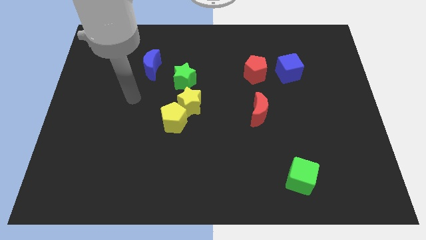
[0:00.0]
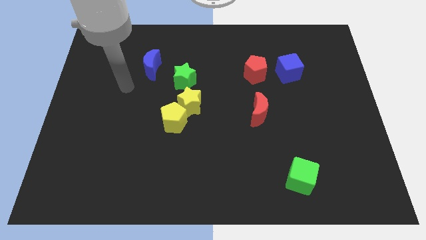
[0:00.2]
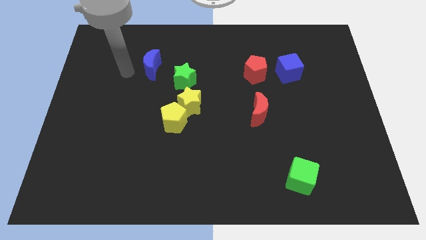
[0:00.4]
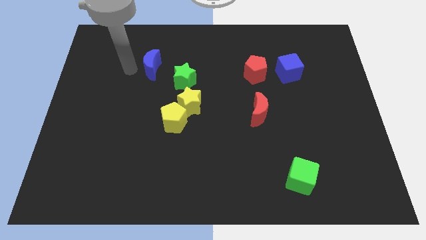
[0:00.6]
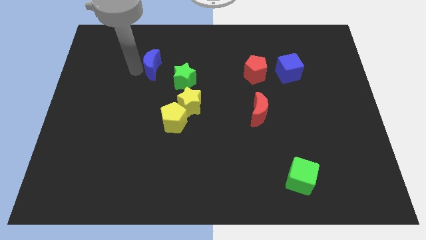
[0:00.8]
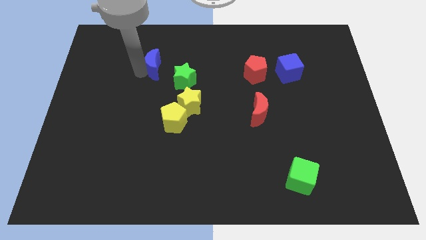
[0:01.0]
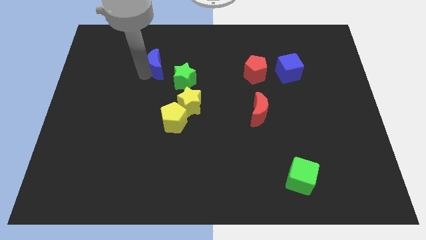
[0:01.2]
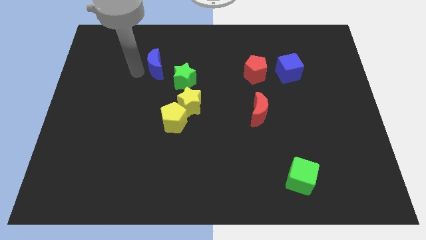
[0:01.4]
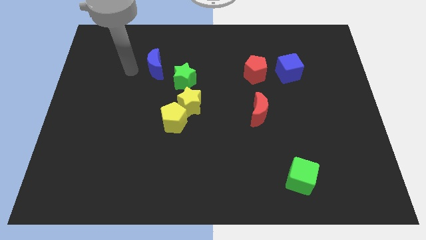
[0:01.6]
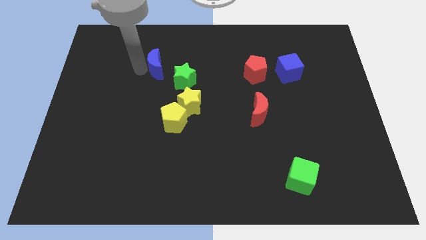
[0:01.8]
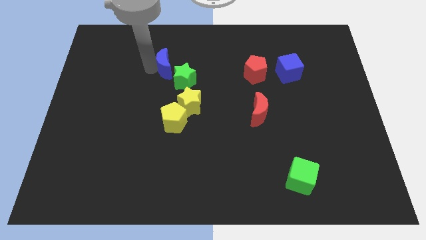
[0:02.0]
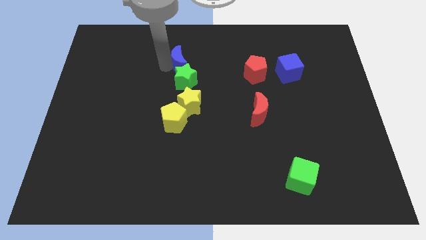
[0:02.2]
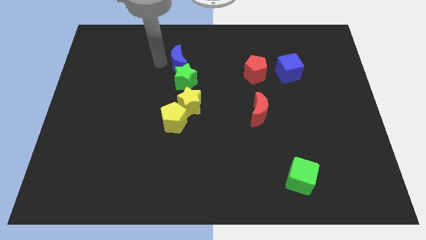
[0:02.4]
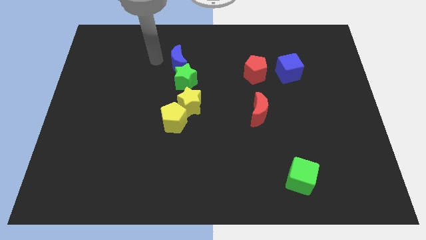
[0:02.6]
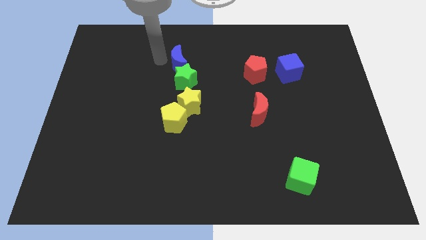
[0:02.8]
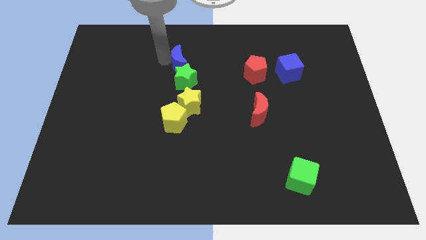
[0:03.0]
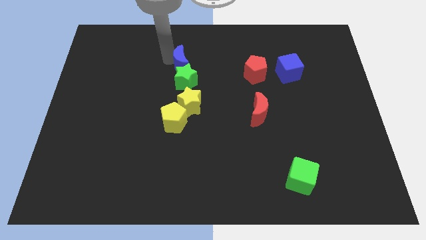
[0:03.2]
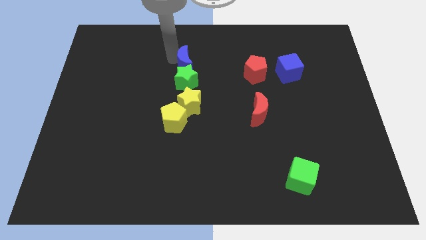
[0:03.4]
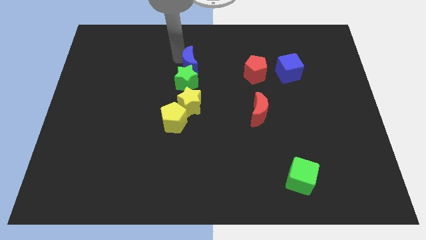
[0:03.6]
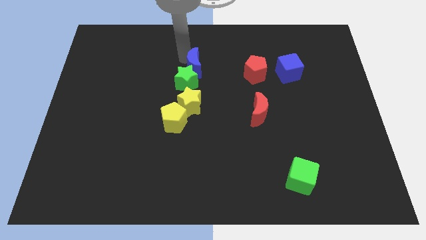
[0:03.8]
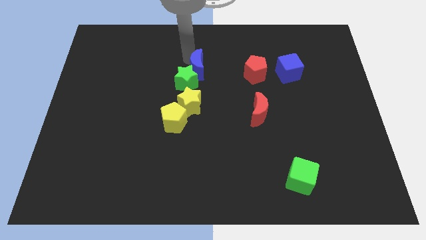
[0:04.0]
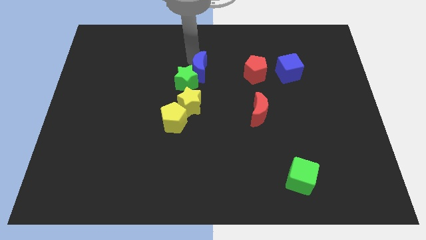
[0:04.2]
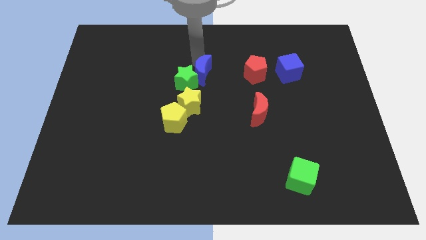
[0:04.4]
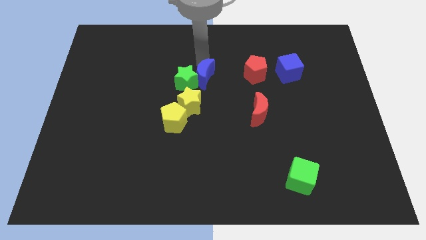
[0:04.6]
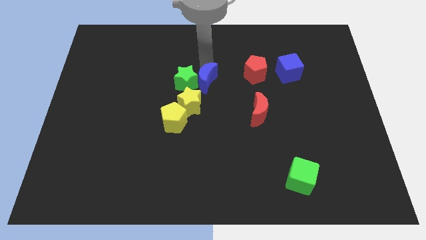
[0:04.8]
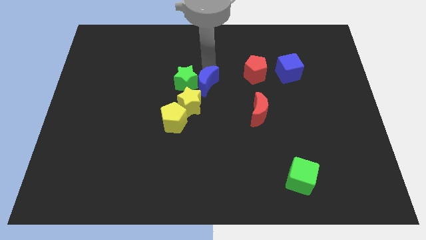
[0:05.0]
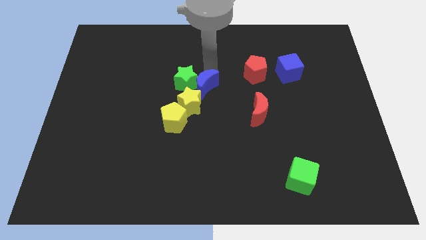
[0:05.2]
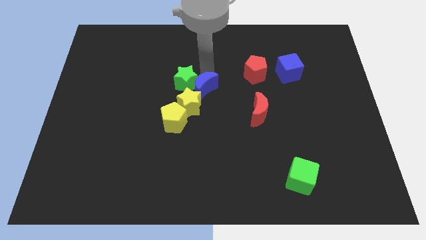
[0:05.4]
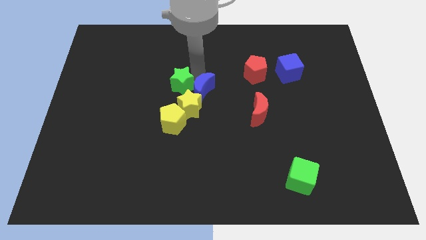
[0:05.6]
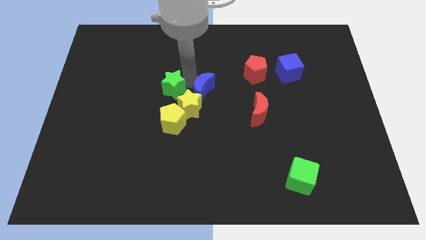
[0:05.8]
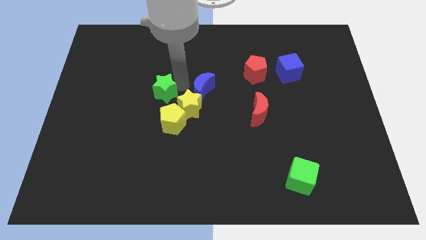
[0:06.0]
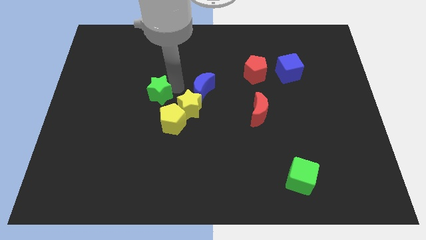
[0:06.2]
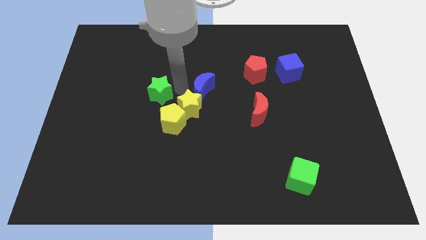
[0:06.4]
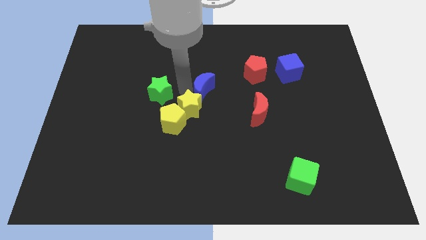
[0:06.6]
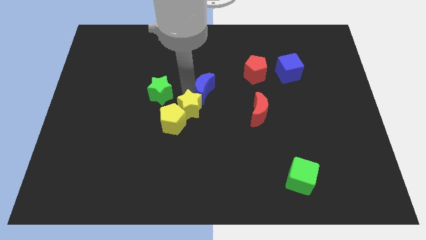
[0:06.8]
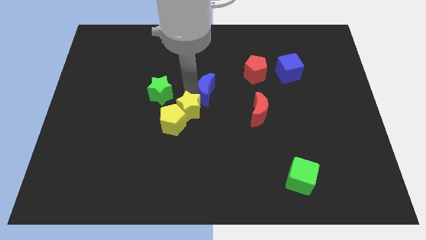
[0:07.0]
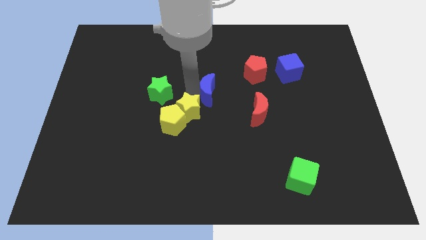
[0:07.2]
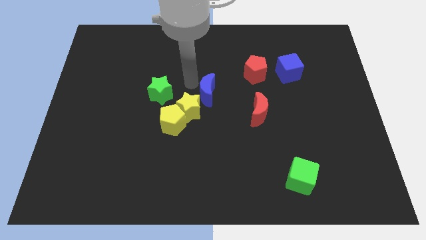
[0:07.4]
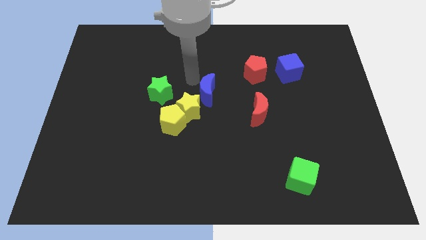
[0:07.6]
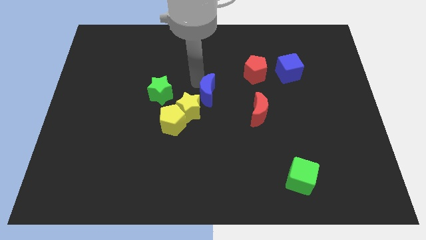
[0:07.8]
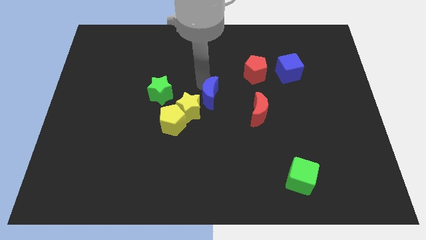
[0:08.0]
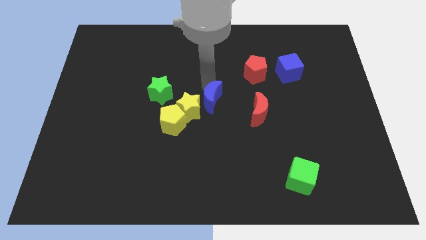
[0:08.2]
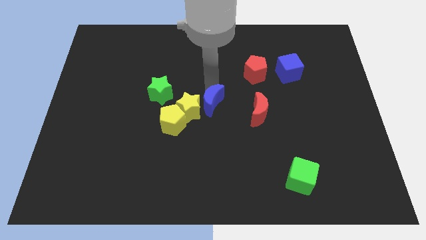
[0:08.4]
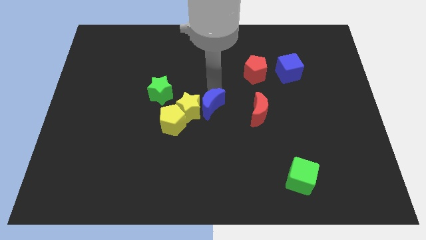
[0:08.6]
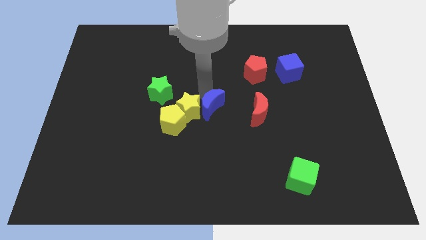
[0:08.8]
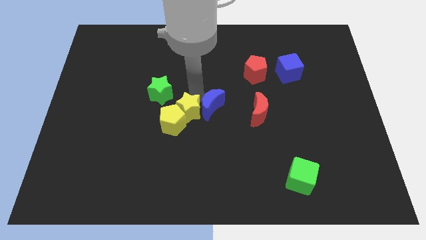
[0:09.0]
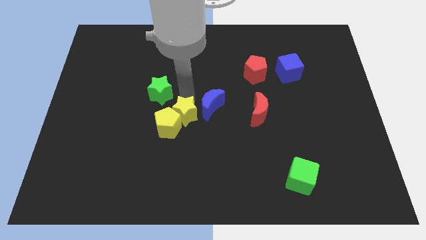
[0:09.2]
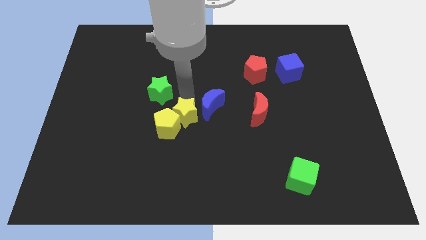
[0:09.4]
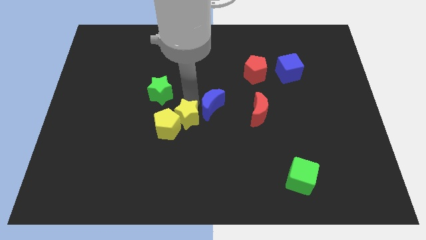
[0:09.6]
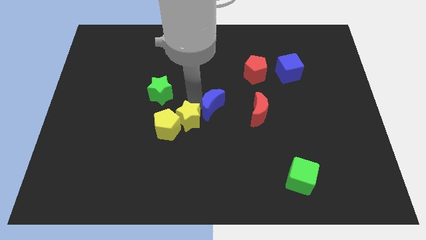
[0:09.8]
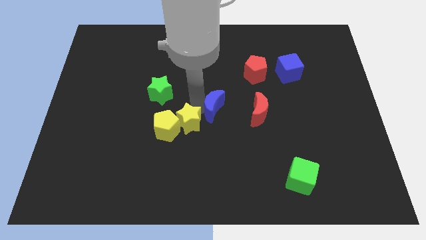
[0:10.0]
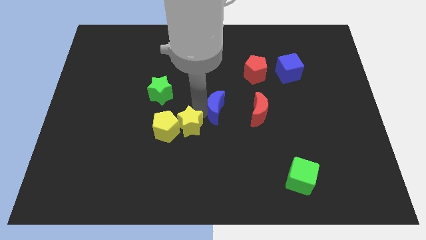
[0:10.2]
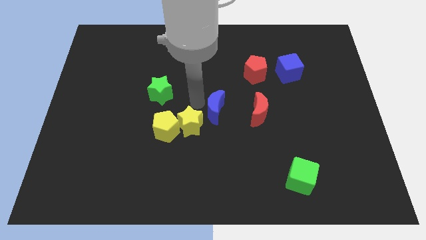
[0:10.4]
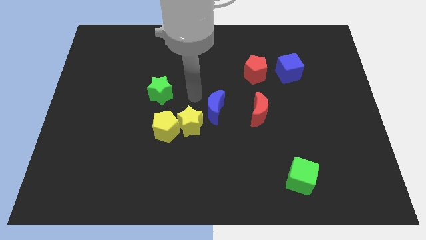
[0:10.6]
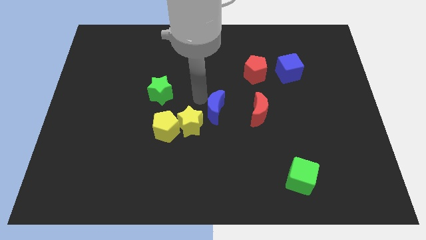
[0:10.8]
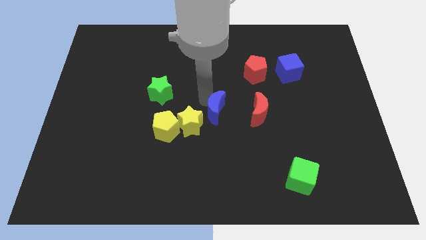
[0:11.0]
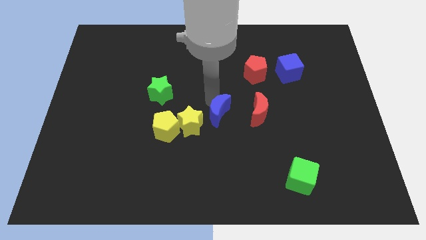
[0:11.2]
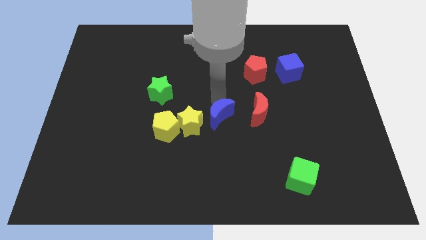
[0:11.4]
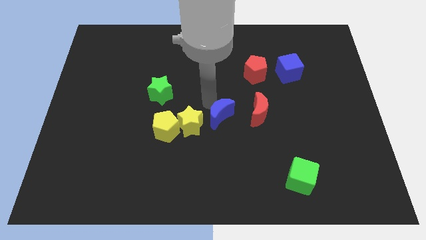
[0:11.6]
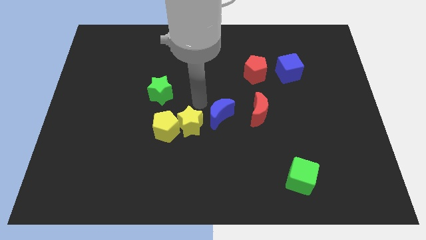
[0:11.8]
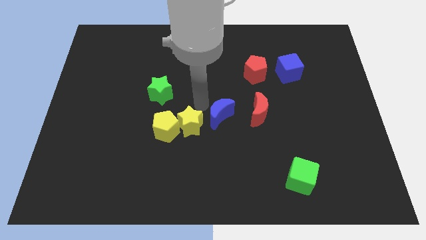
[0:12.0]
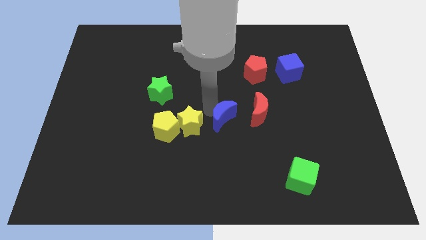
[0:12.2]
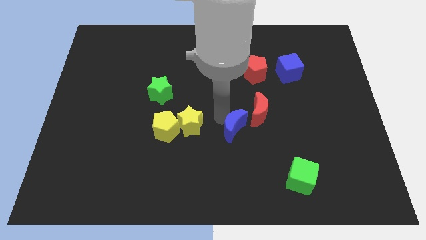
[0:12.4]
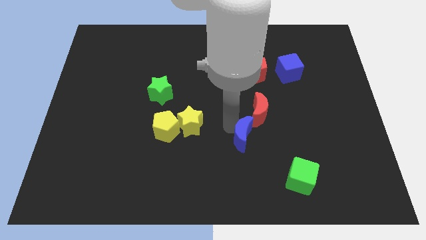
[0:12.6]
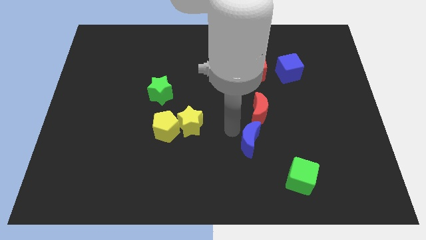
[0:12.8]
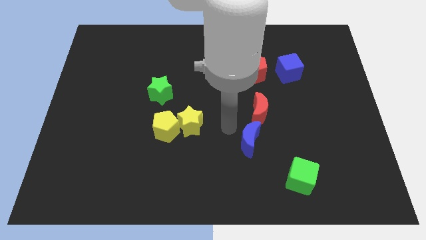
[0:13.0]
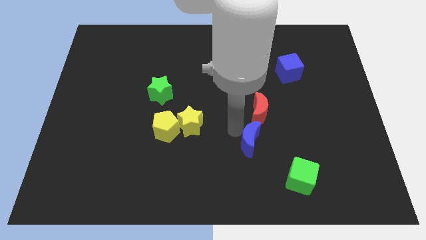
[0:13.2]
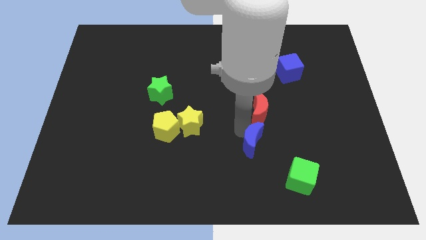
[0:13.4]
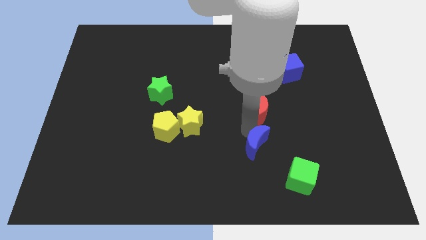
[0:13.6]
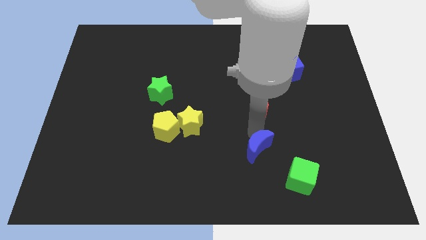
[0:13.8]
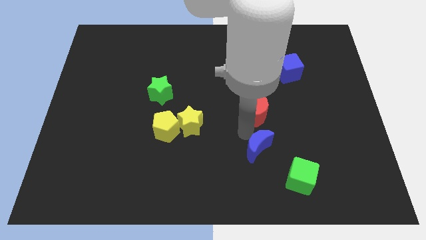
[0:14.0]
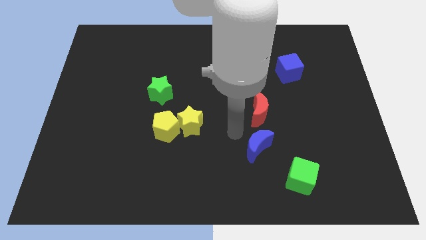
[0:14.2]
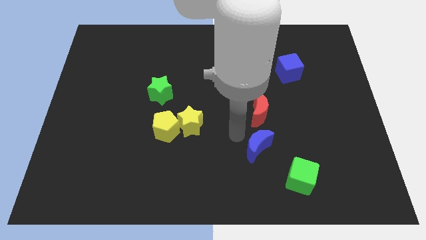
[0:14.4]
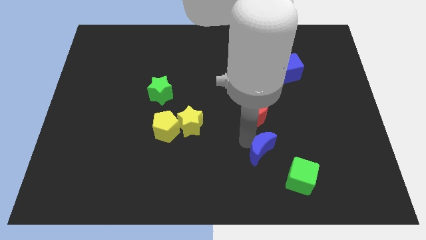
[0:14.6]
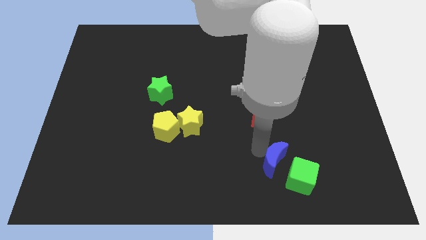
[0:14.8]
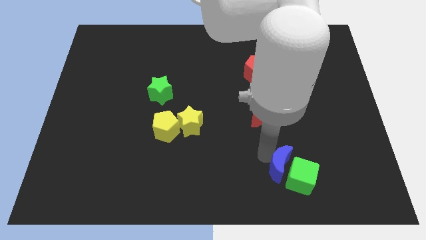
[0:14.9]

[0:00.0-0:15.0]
slide the blue moon to the green cube

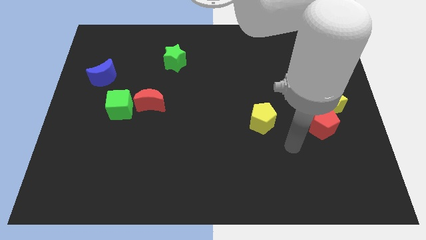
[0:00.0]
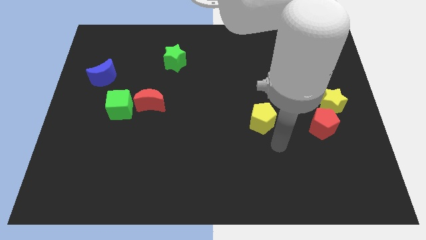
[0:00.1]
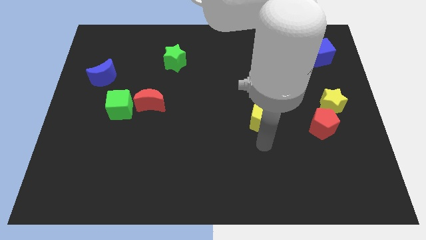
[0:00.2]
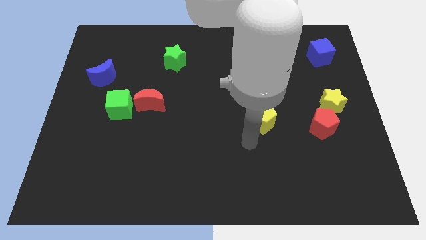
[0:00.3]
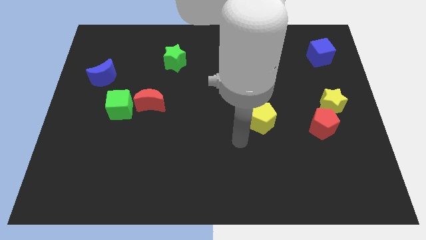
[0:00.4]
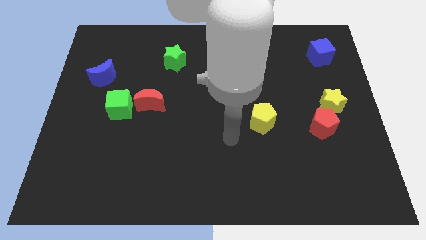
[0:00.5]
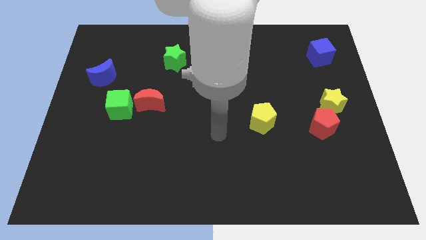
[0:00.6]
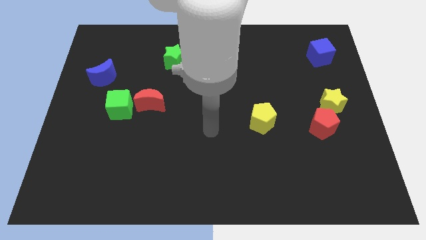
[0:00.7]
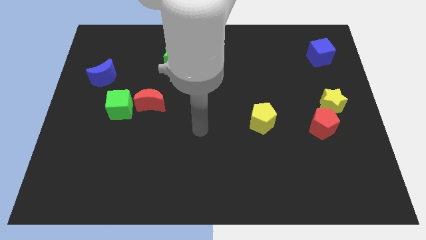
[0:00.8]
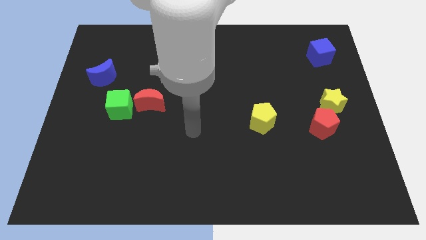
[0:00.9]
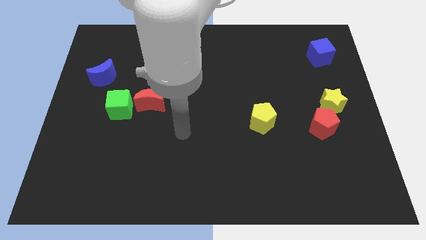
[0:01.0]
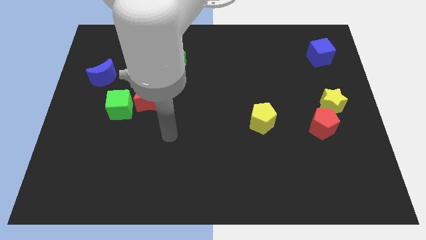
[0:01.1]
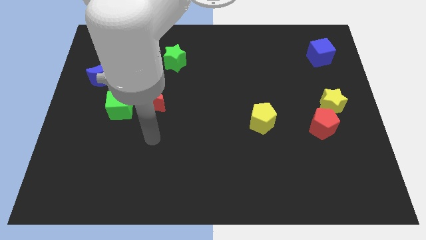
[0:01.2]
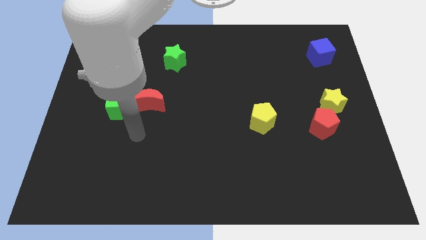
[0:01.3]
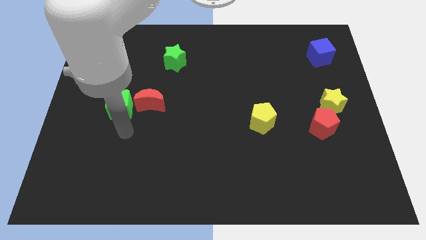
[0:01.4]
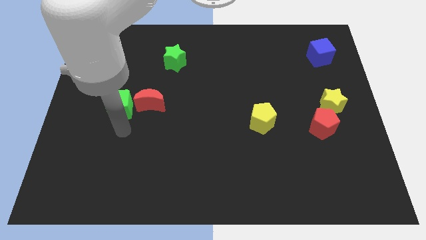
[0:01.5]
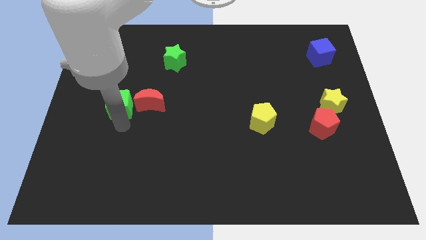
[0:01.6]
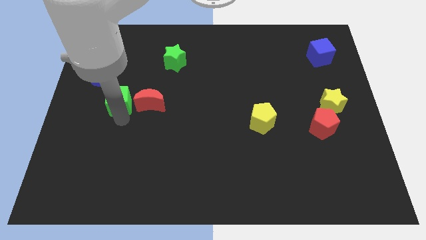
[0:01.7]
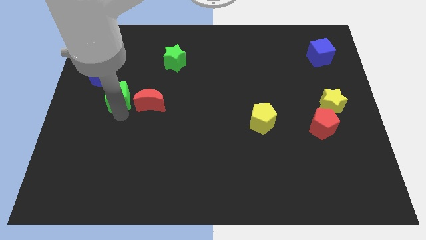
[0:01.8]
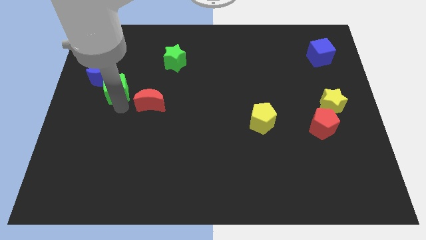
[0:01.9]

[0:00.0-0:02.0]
put the green cube to the blue moon
